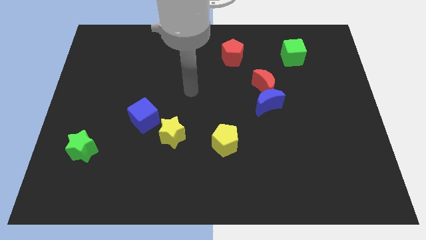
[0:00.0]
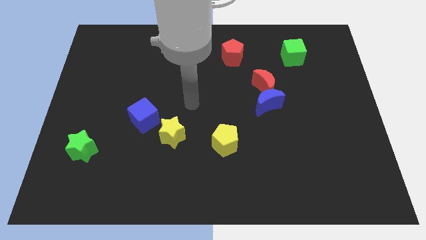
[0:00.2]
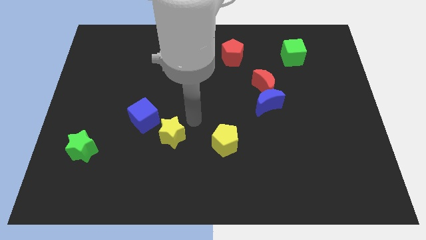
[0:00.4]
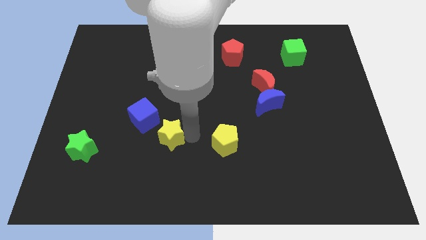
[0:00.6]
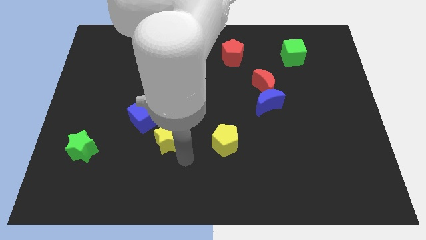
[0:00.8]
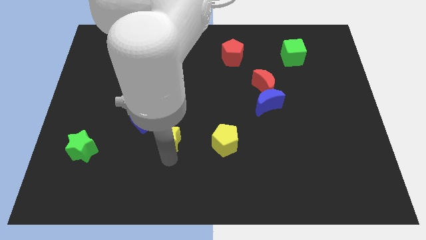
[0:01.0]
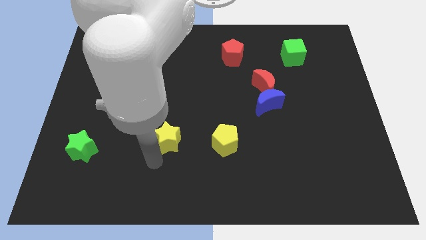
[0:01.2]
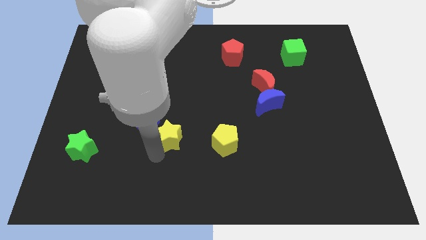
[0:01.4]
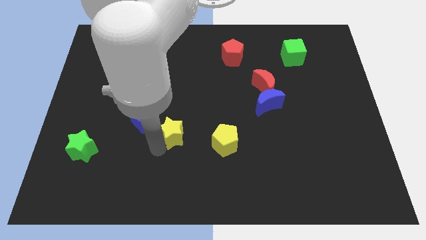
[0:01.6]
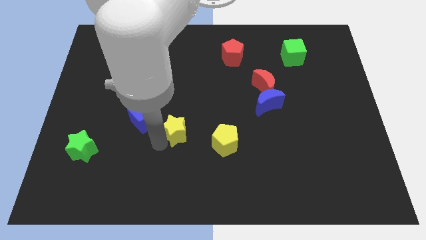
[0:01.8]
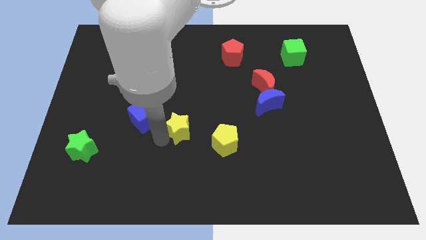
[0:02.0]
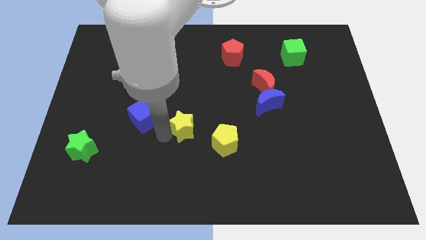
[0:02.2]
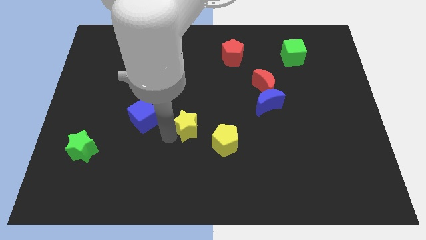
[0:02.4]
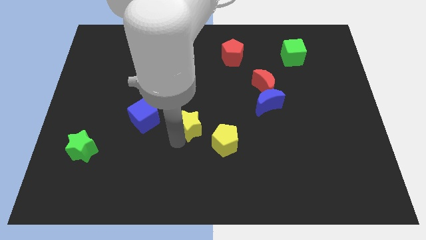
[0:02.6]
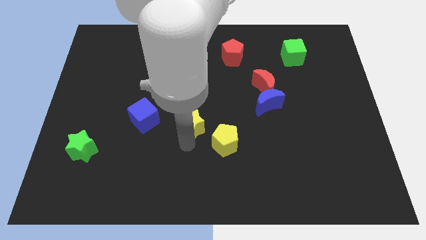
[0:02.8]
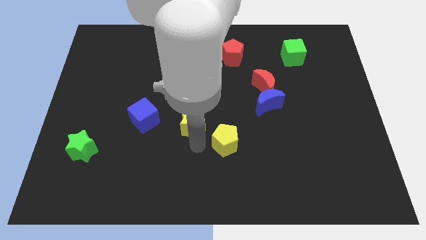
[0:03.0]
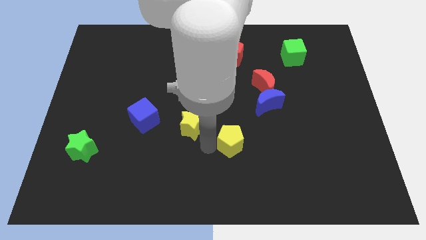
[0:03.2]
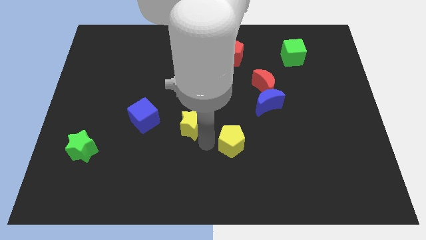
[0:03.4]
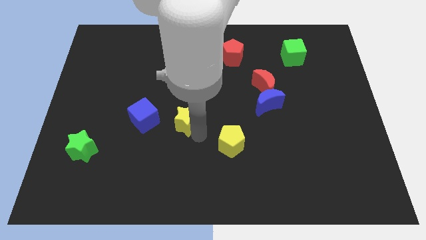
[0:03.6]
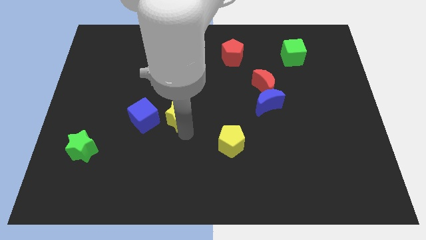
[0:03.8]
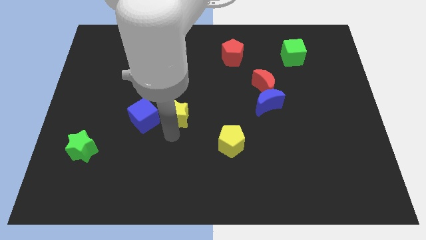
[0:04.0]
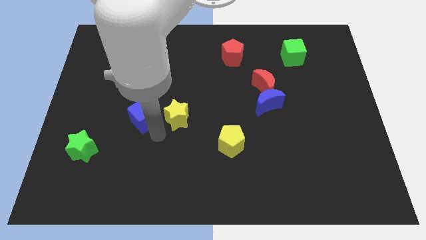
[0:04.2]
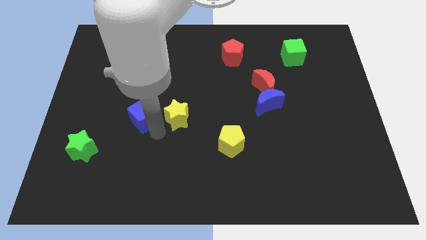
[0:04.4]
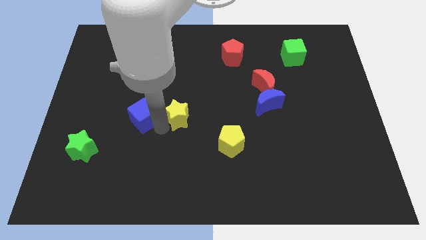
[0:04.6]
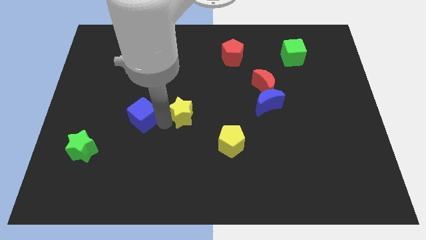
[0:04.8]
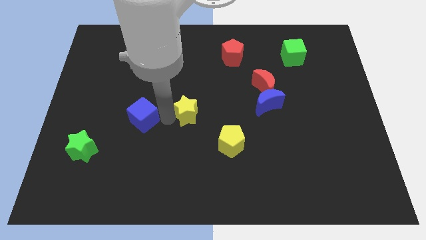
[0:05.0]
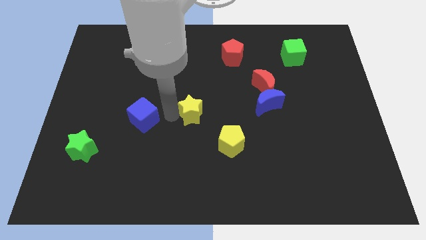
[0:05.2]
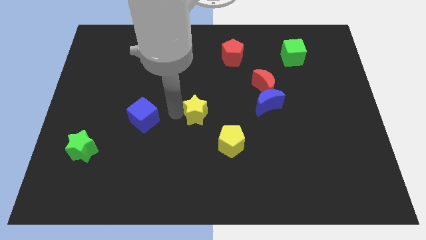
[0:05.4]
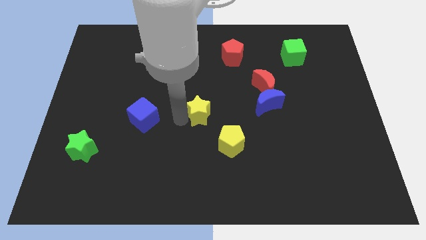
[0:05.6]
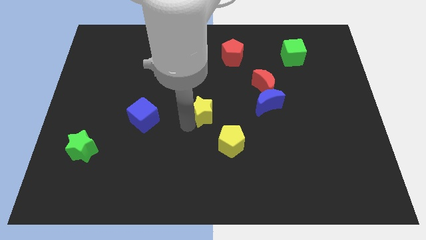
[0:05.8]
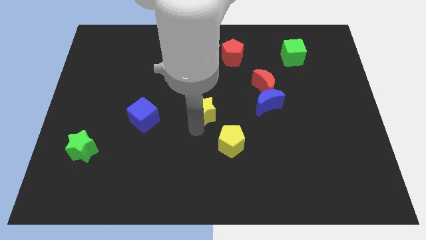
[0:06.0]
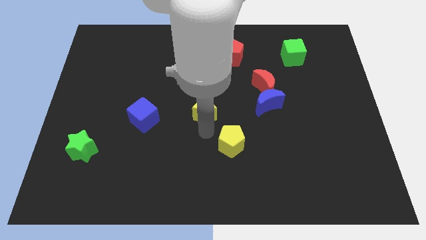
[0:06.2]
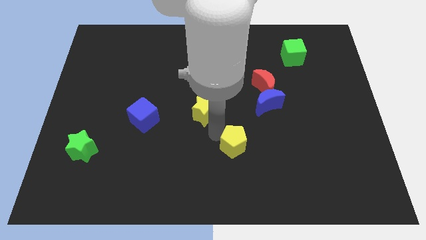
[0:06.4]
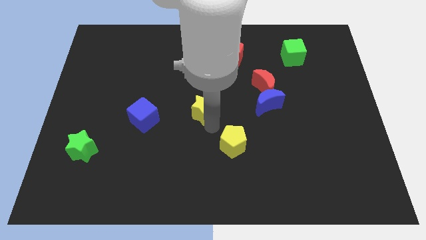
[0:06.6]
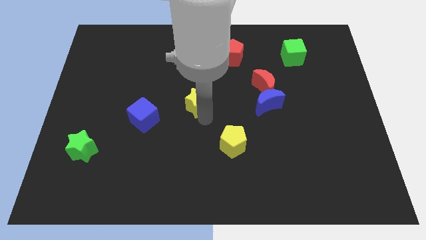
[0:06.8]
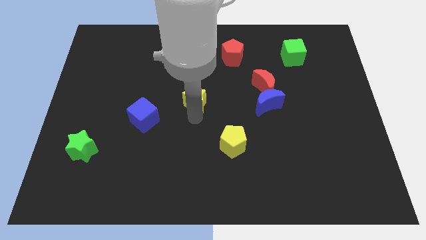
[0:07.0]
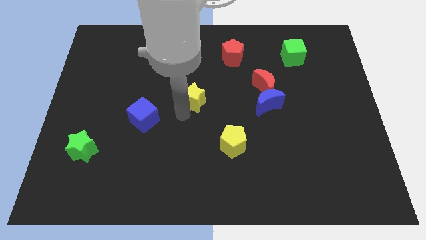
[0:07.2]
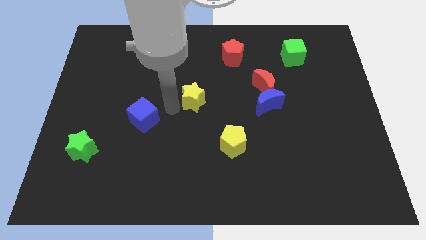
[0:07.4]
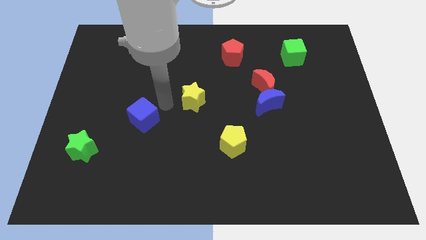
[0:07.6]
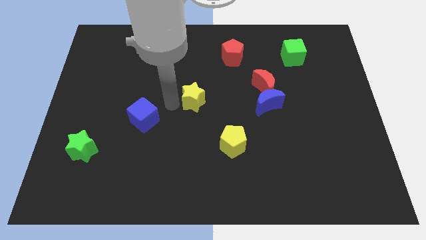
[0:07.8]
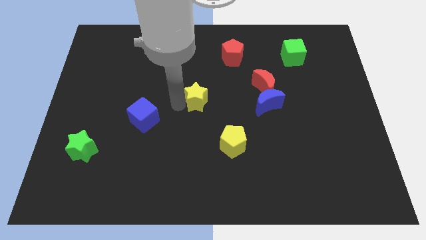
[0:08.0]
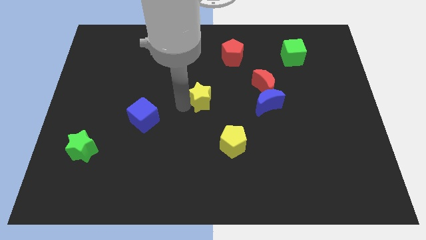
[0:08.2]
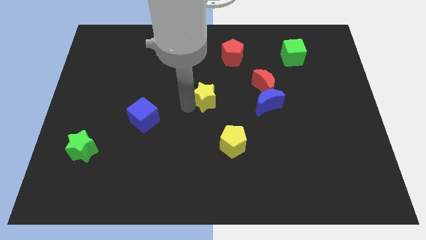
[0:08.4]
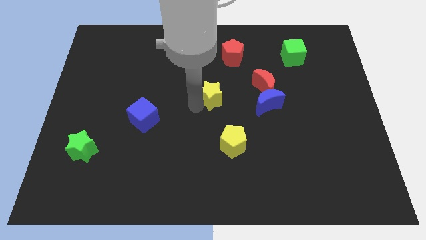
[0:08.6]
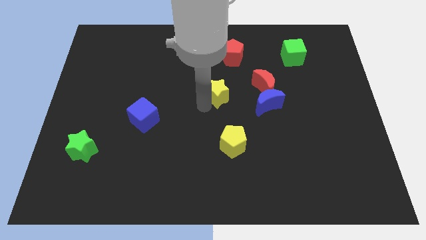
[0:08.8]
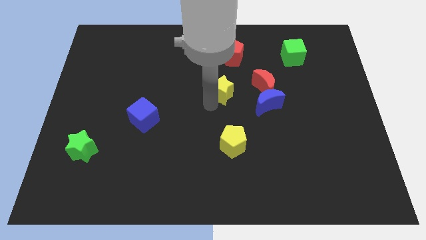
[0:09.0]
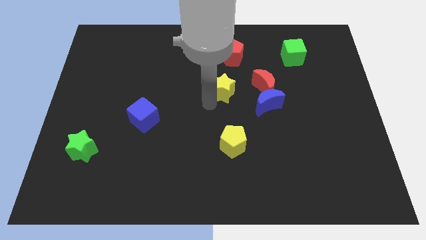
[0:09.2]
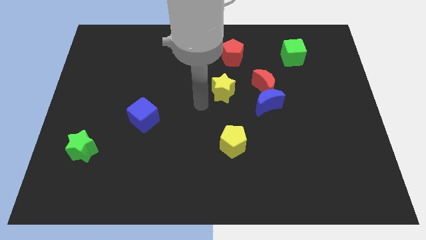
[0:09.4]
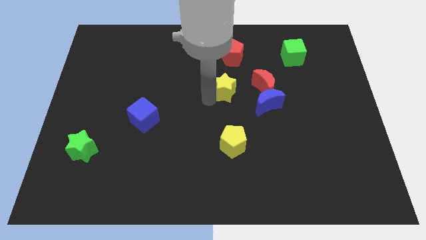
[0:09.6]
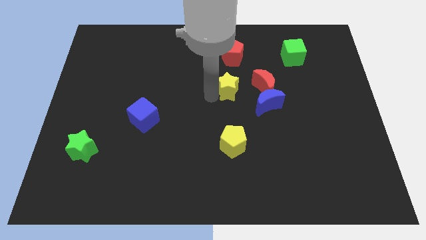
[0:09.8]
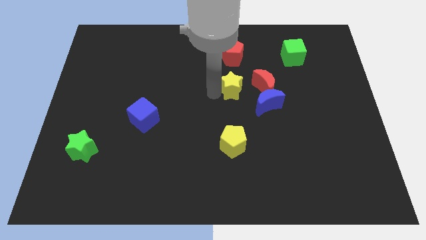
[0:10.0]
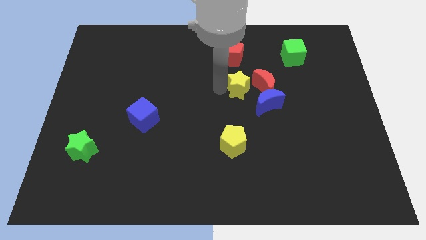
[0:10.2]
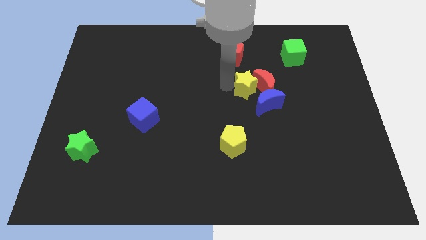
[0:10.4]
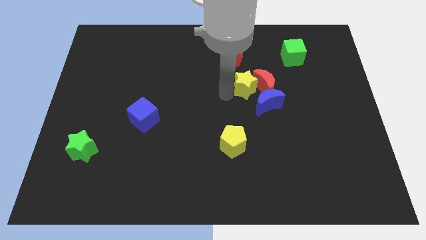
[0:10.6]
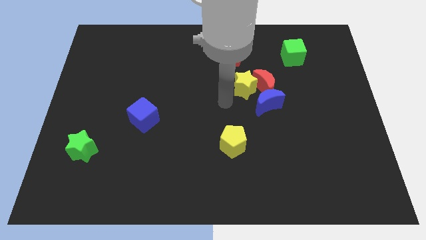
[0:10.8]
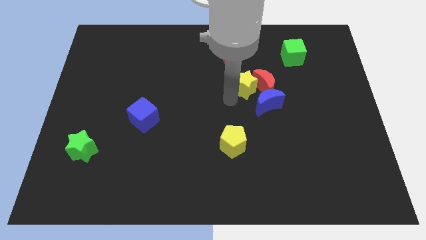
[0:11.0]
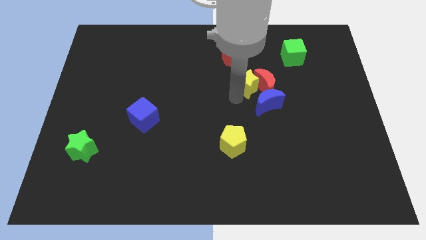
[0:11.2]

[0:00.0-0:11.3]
put the yellow star to the top of the blue moon

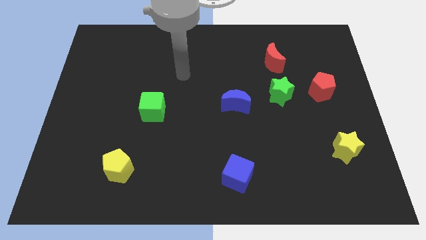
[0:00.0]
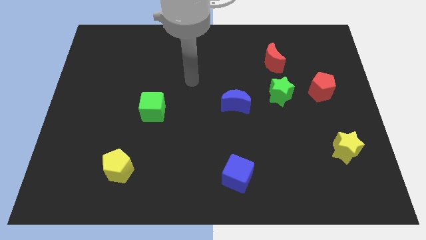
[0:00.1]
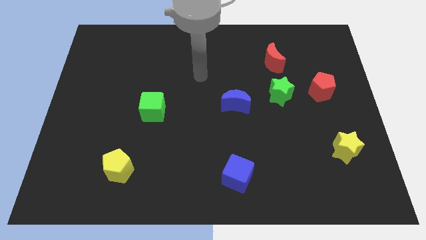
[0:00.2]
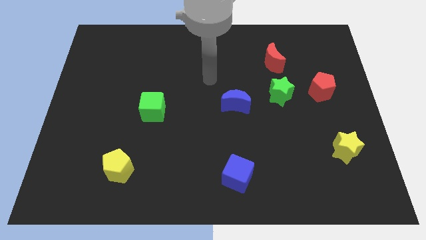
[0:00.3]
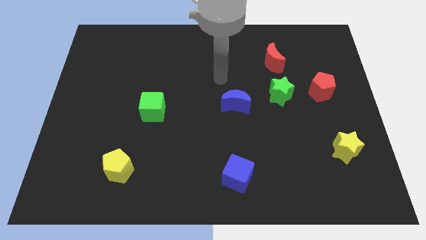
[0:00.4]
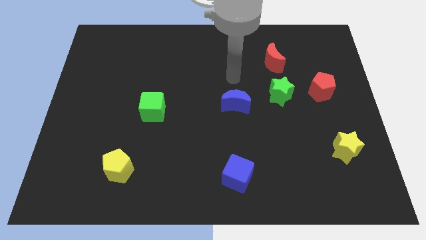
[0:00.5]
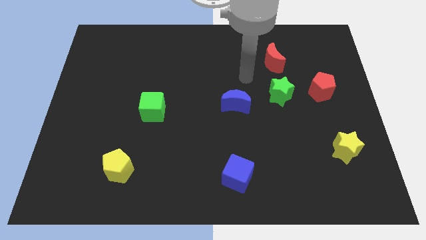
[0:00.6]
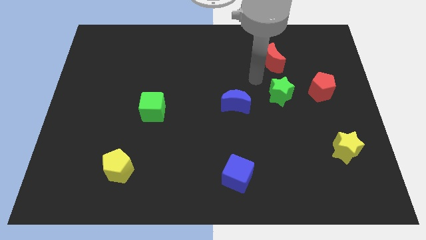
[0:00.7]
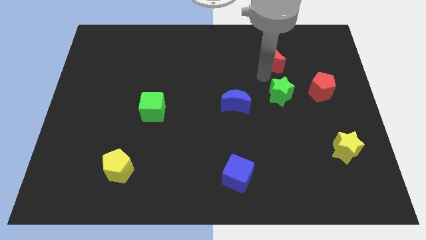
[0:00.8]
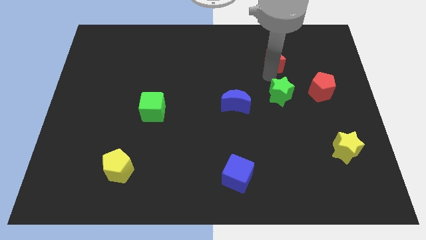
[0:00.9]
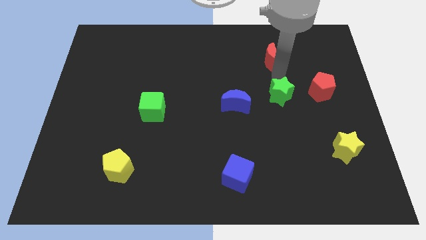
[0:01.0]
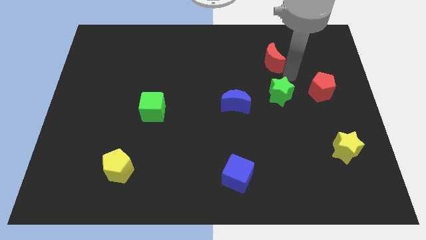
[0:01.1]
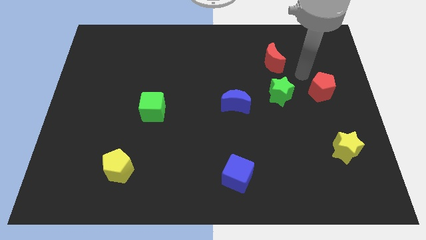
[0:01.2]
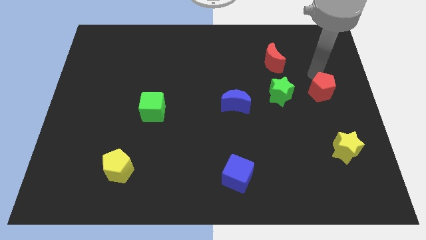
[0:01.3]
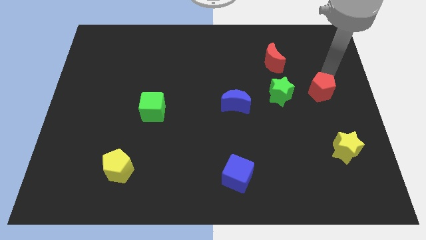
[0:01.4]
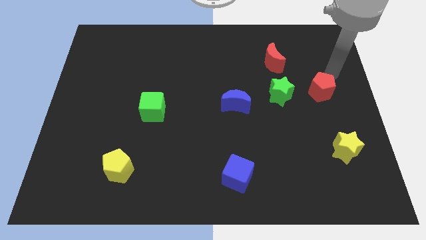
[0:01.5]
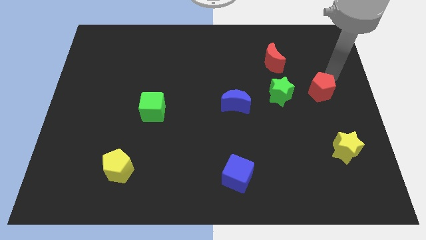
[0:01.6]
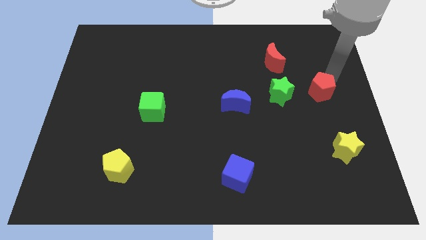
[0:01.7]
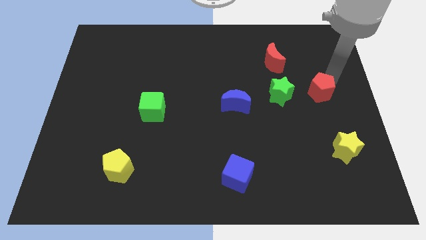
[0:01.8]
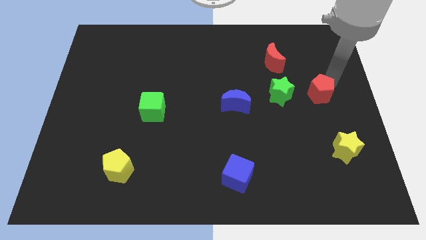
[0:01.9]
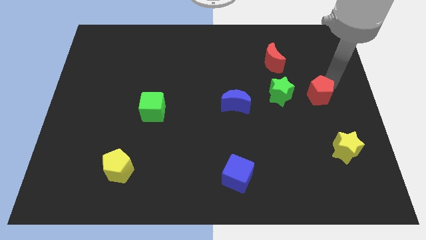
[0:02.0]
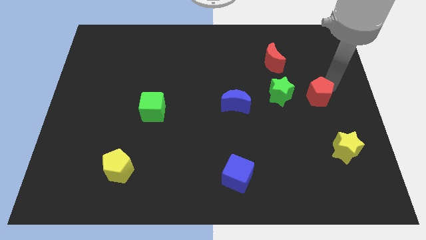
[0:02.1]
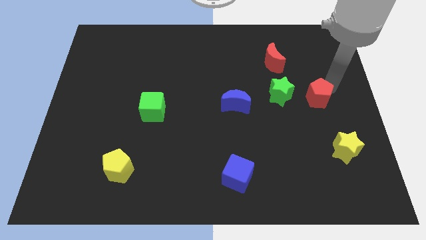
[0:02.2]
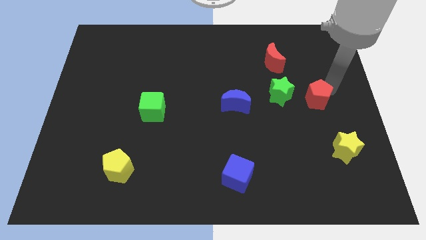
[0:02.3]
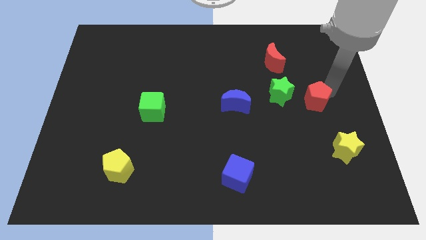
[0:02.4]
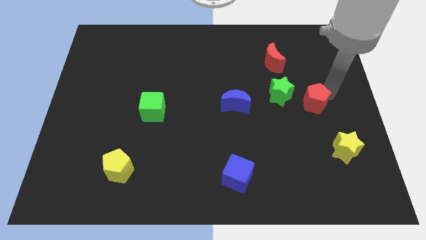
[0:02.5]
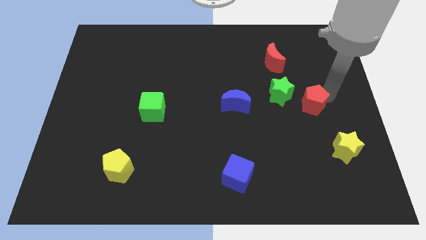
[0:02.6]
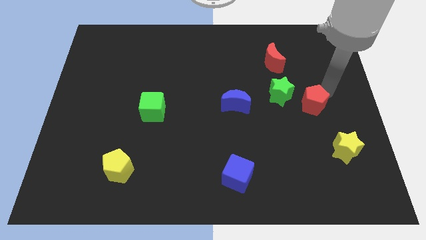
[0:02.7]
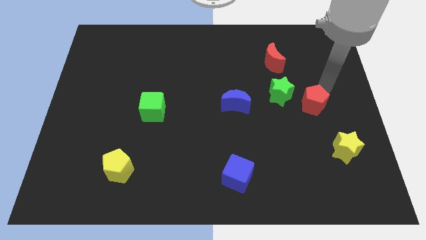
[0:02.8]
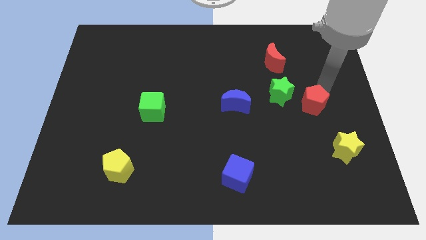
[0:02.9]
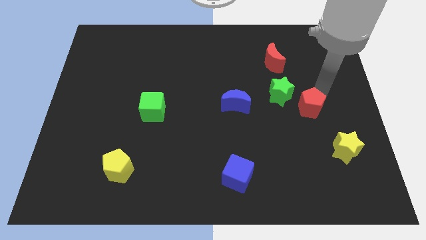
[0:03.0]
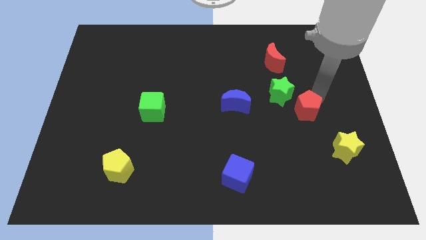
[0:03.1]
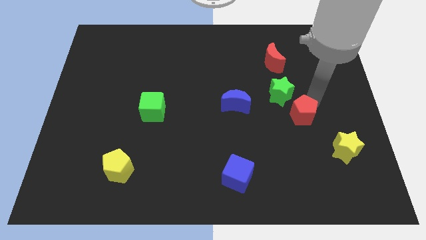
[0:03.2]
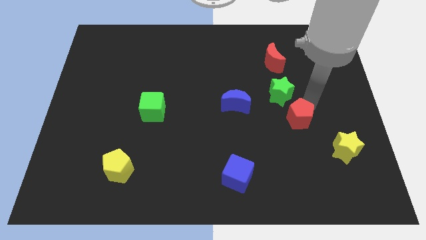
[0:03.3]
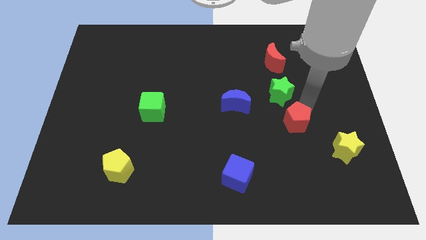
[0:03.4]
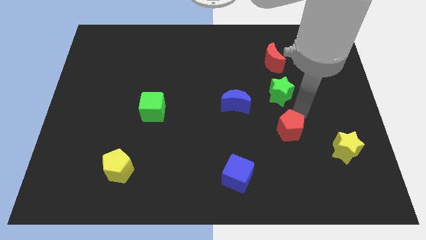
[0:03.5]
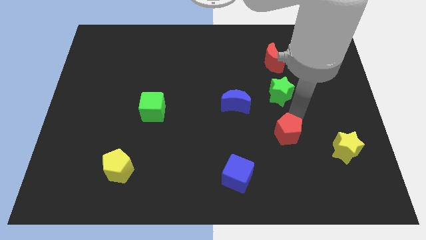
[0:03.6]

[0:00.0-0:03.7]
slide the red pentagon to the left side of the yellow star
